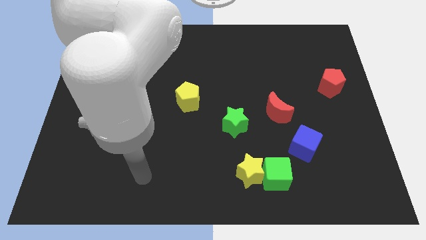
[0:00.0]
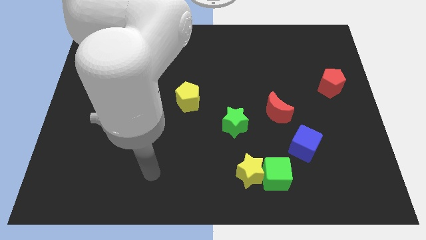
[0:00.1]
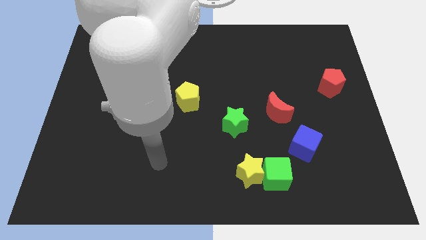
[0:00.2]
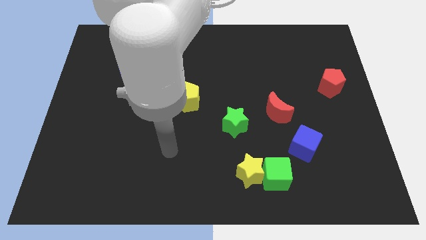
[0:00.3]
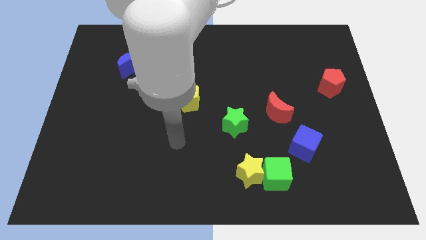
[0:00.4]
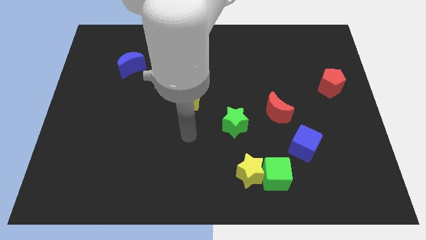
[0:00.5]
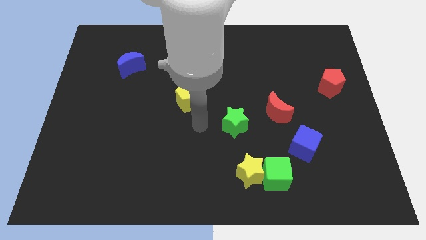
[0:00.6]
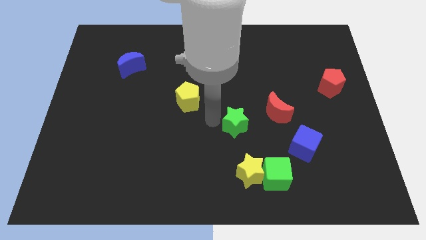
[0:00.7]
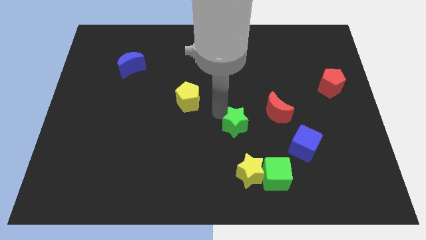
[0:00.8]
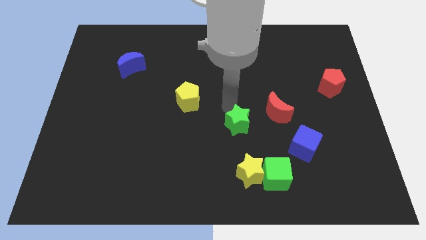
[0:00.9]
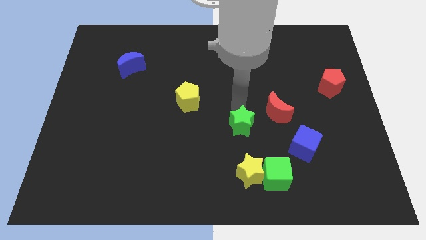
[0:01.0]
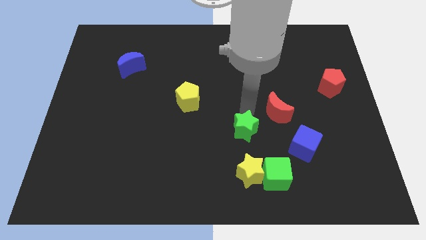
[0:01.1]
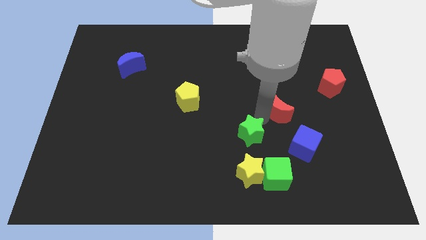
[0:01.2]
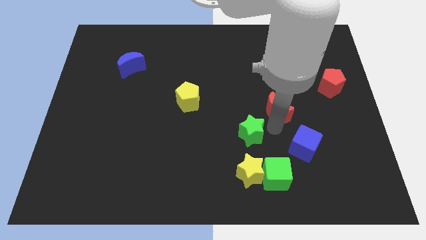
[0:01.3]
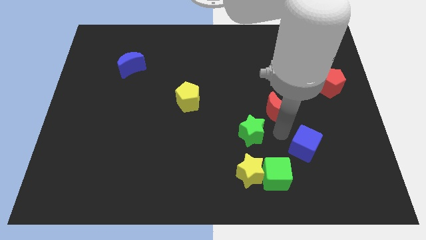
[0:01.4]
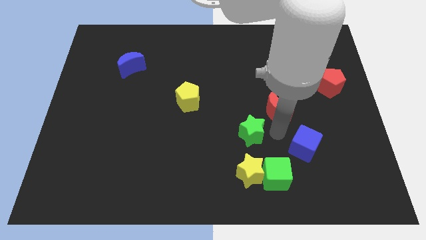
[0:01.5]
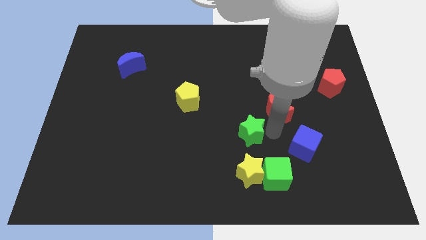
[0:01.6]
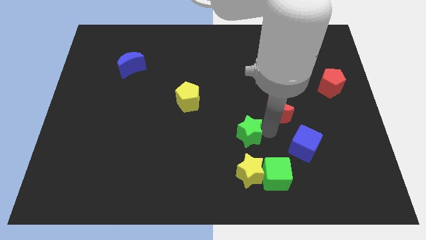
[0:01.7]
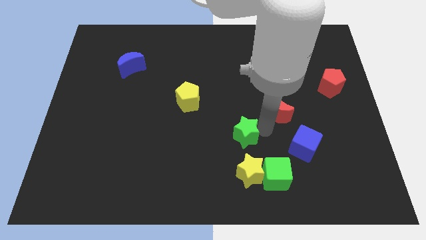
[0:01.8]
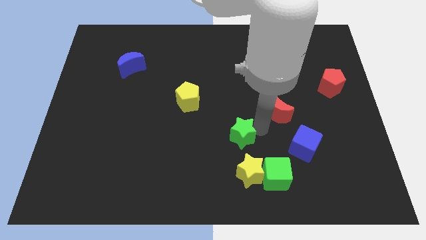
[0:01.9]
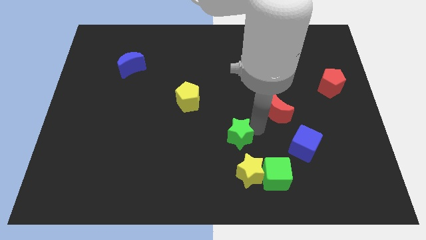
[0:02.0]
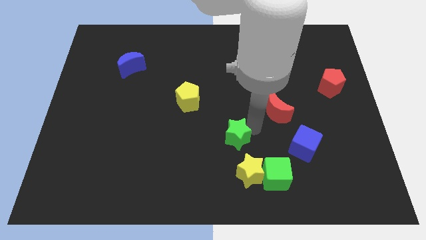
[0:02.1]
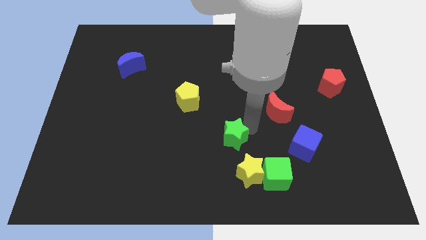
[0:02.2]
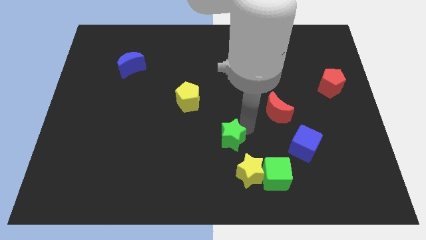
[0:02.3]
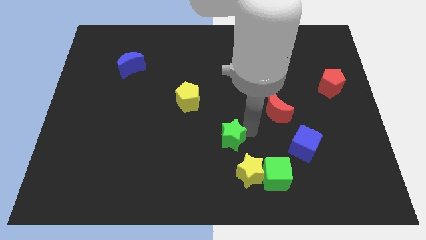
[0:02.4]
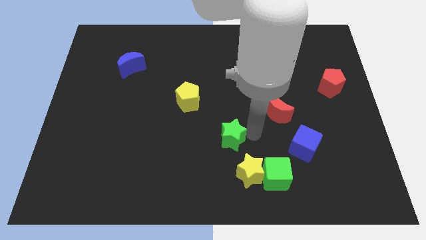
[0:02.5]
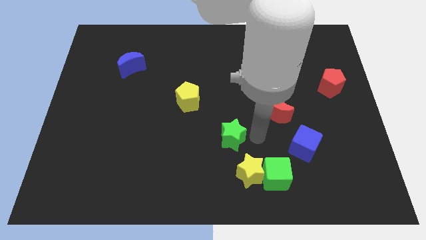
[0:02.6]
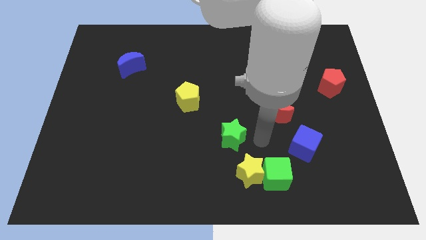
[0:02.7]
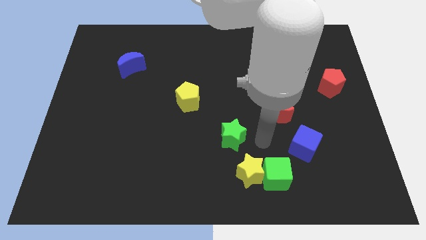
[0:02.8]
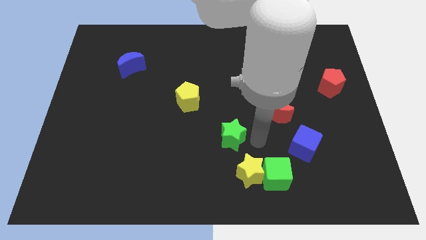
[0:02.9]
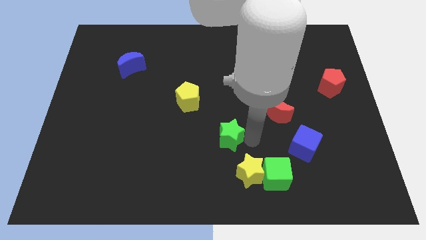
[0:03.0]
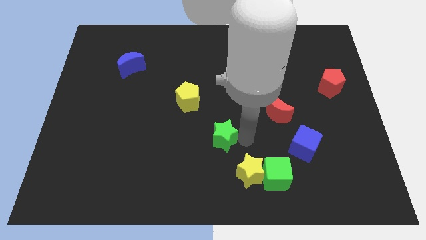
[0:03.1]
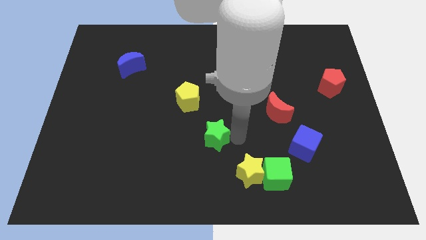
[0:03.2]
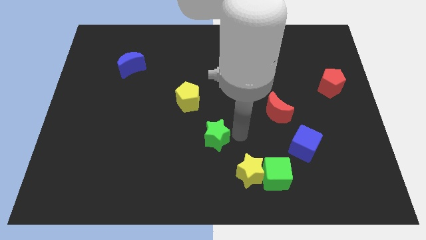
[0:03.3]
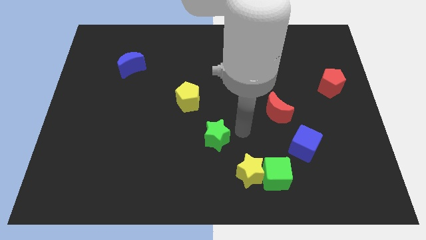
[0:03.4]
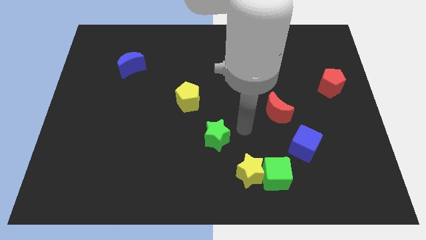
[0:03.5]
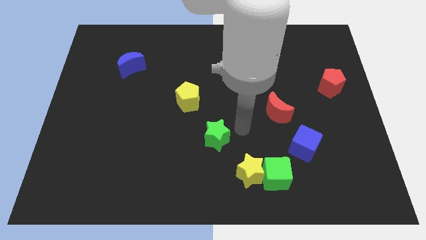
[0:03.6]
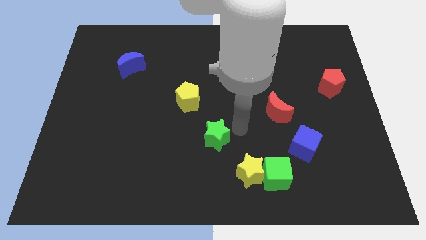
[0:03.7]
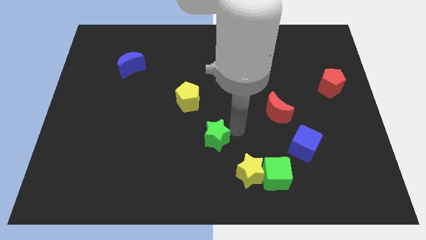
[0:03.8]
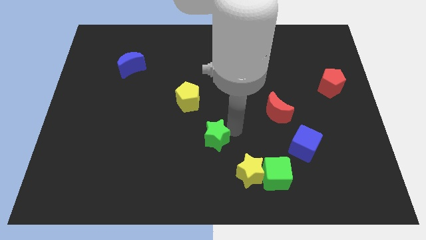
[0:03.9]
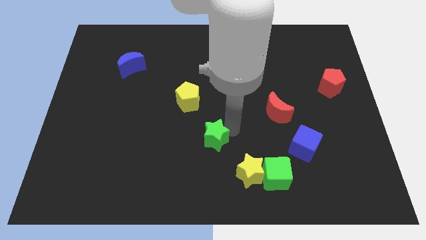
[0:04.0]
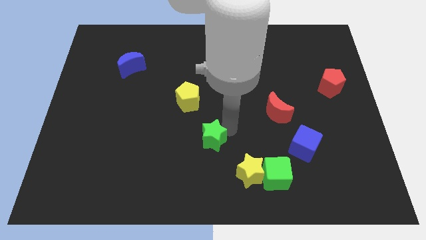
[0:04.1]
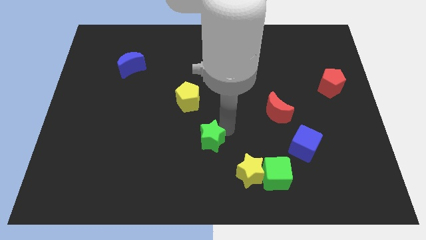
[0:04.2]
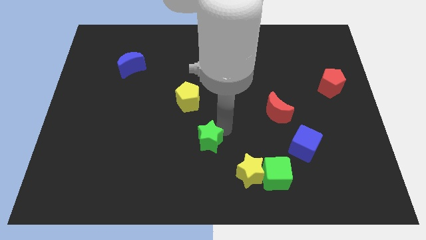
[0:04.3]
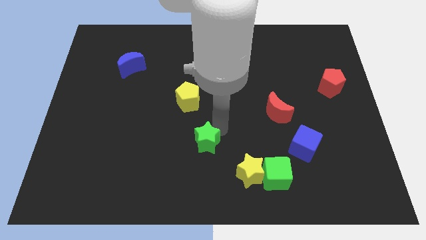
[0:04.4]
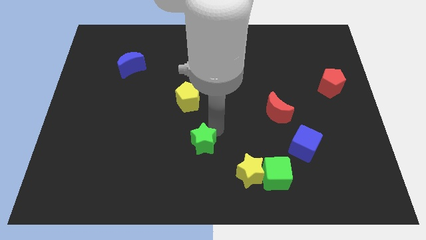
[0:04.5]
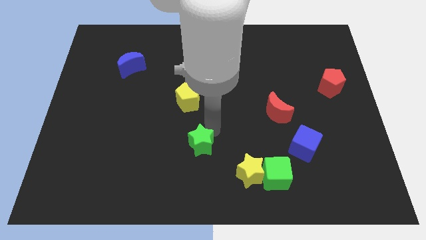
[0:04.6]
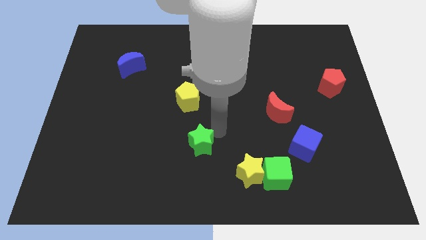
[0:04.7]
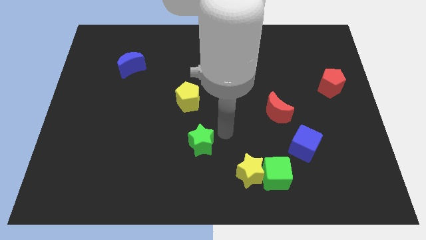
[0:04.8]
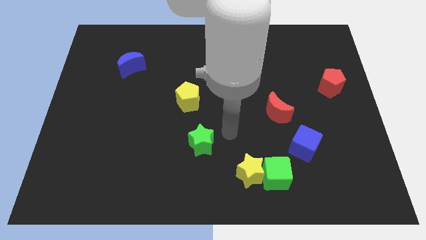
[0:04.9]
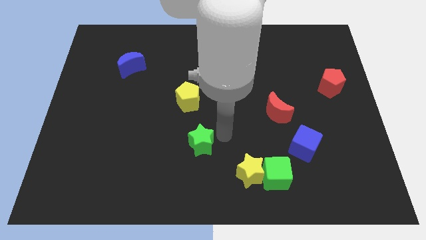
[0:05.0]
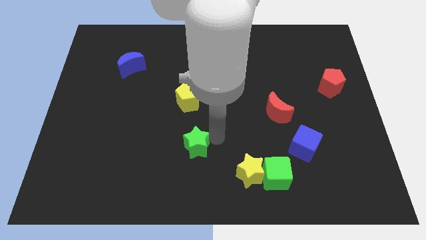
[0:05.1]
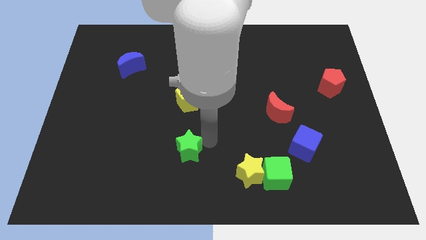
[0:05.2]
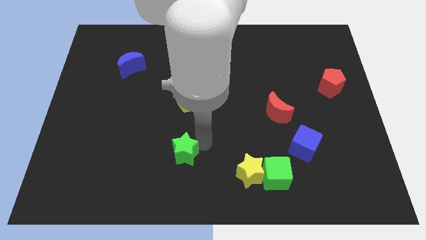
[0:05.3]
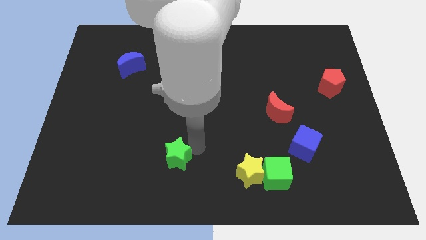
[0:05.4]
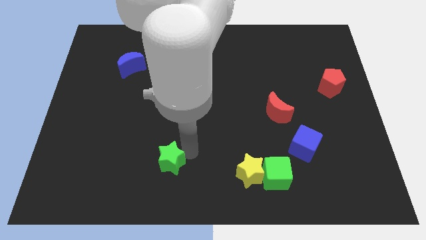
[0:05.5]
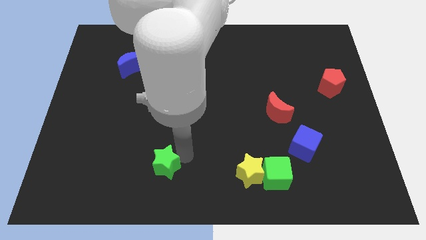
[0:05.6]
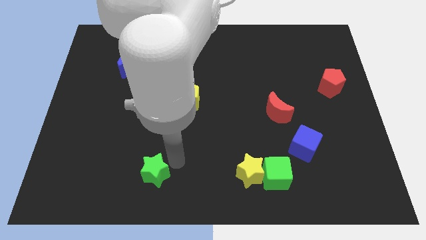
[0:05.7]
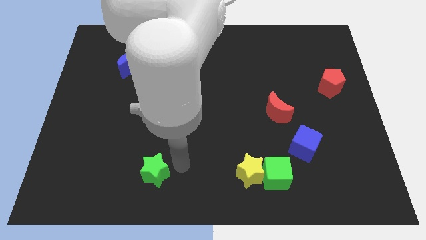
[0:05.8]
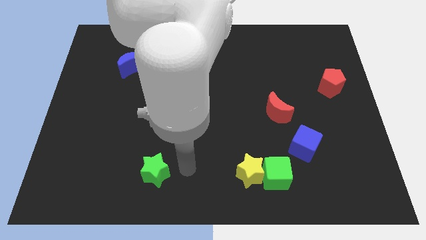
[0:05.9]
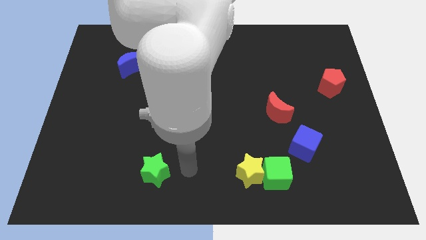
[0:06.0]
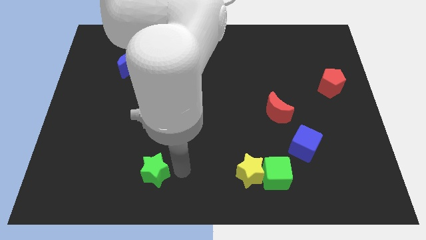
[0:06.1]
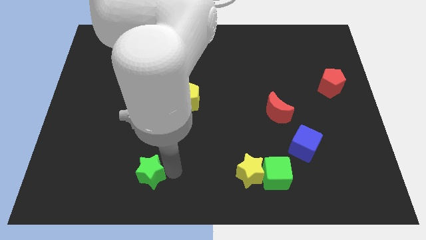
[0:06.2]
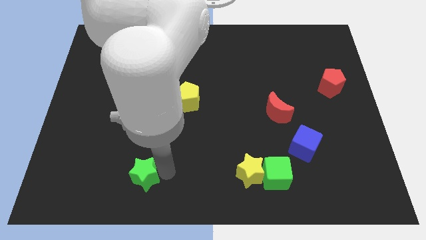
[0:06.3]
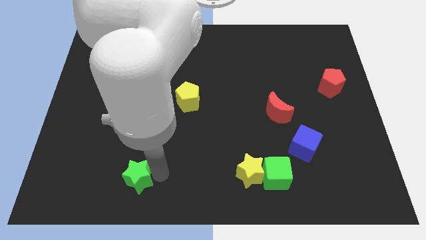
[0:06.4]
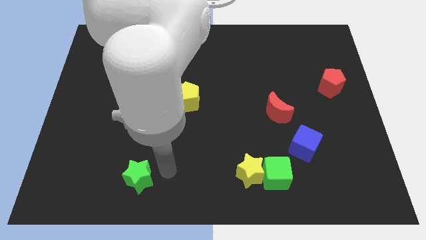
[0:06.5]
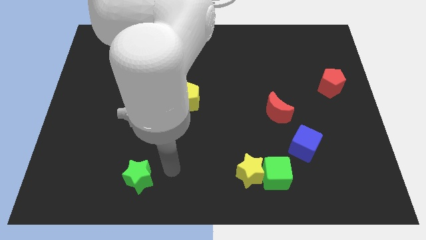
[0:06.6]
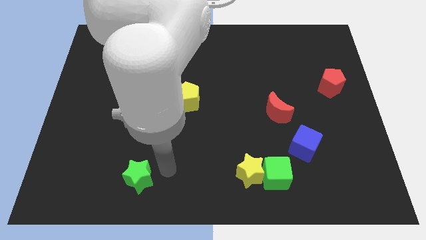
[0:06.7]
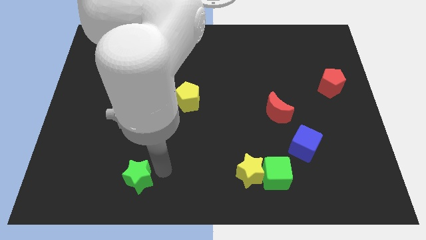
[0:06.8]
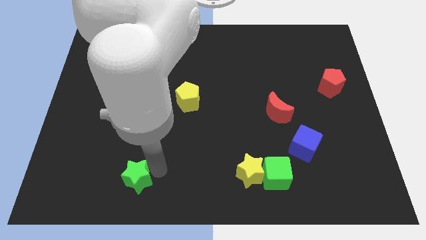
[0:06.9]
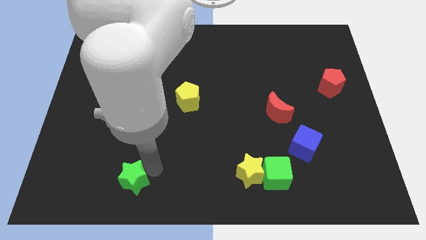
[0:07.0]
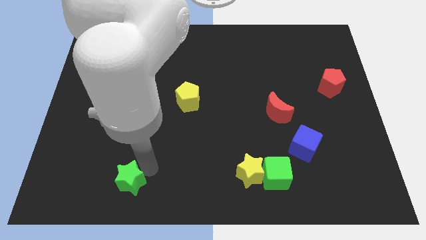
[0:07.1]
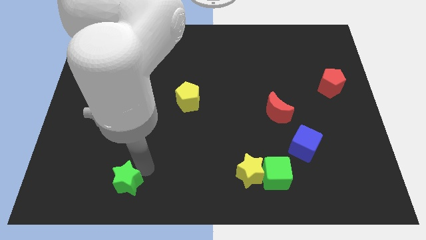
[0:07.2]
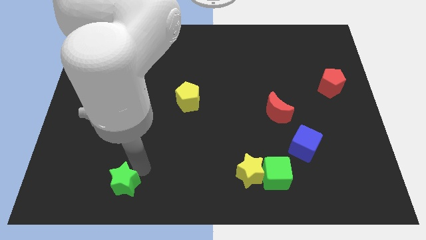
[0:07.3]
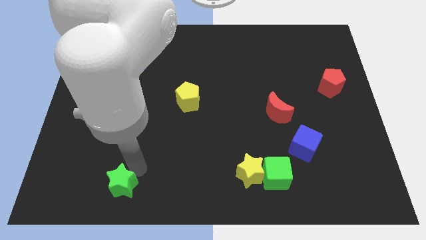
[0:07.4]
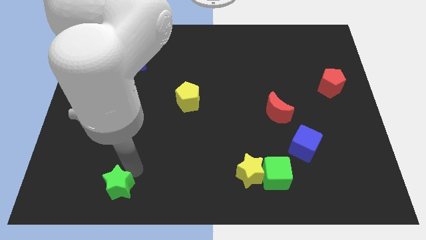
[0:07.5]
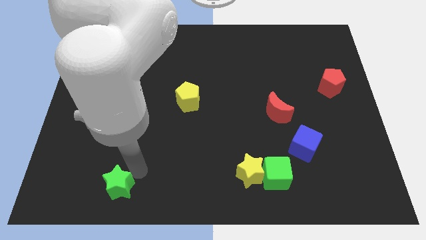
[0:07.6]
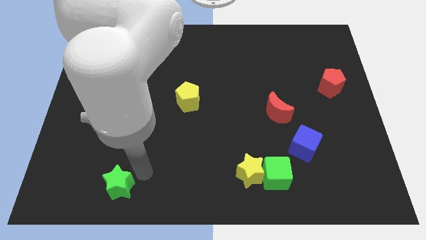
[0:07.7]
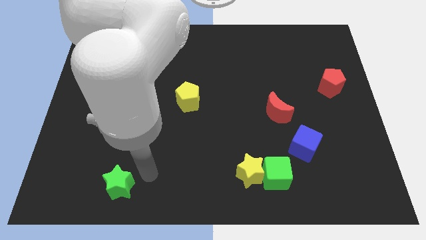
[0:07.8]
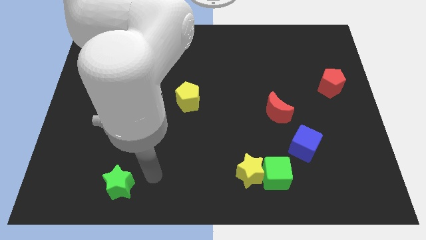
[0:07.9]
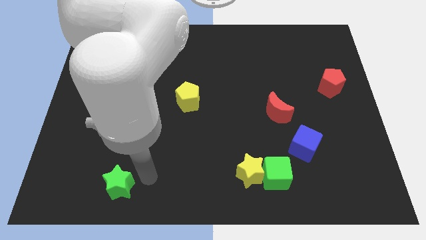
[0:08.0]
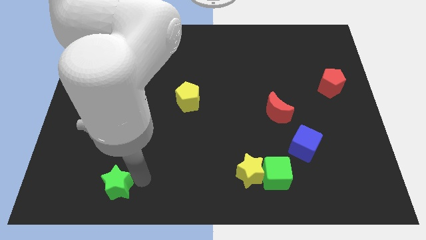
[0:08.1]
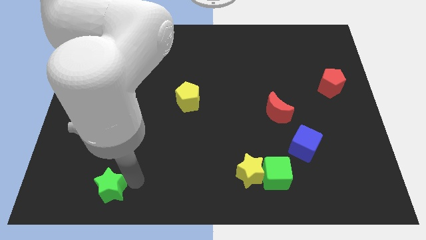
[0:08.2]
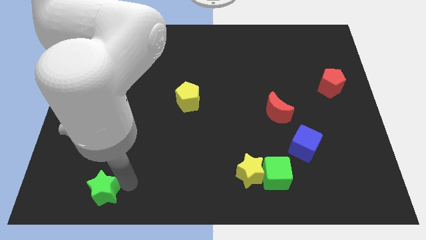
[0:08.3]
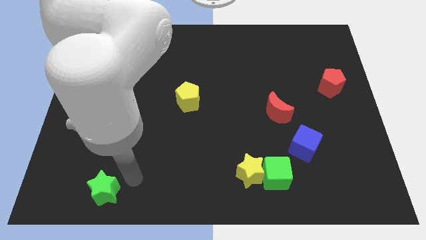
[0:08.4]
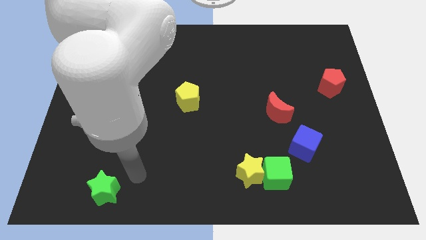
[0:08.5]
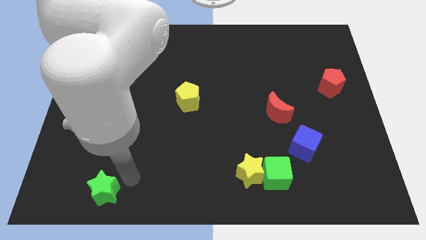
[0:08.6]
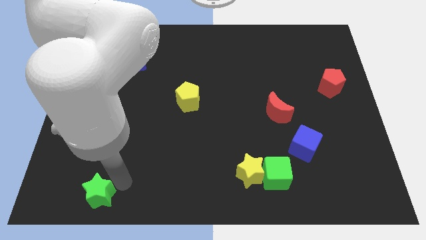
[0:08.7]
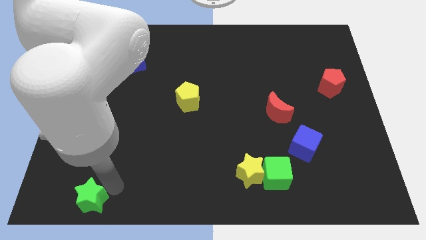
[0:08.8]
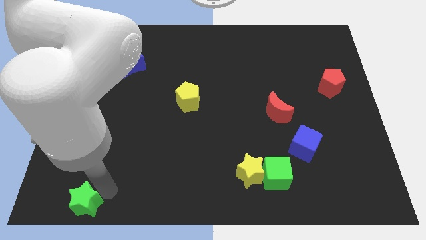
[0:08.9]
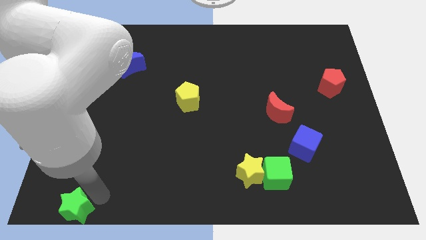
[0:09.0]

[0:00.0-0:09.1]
slide the green star to the bottom left of the board
